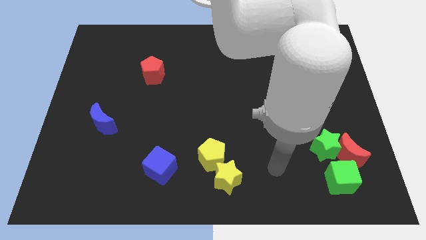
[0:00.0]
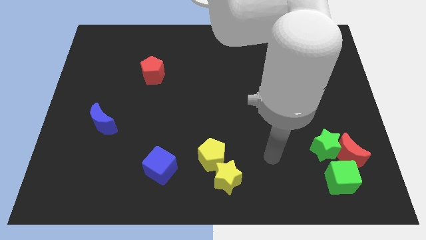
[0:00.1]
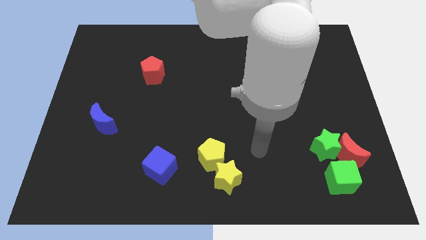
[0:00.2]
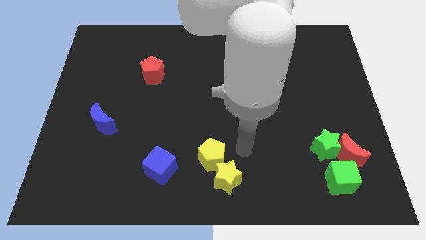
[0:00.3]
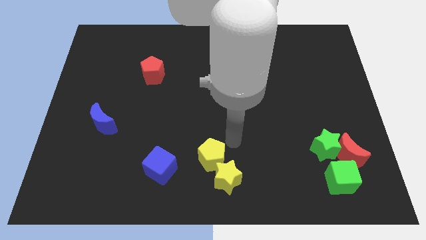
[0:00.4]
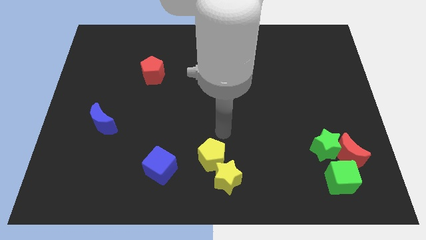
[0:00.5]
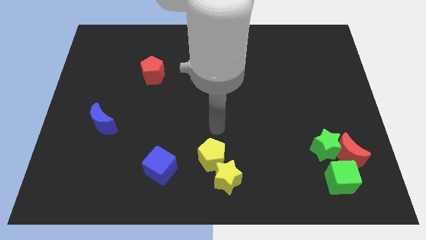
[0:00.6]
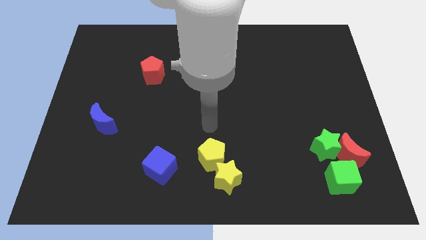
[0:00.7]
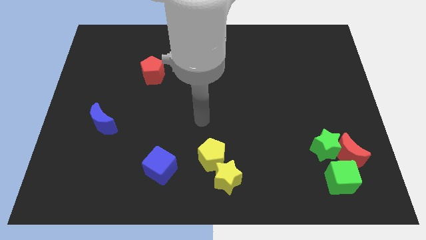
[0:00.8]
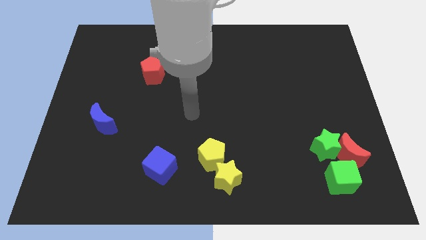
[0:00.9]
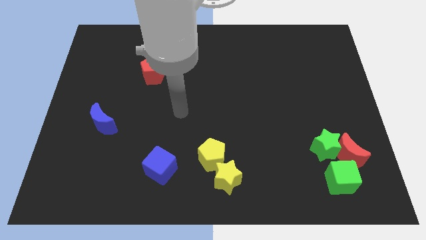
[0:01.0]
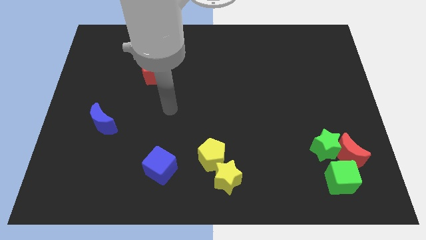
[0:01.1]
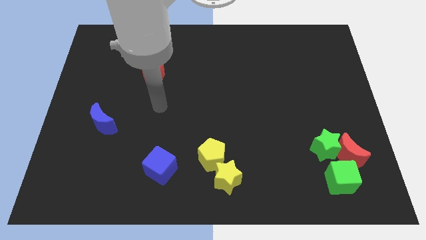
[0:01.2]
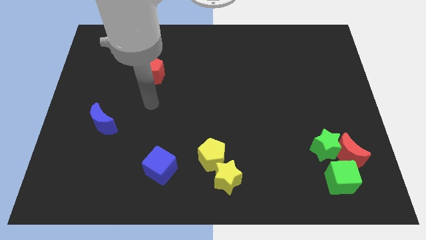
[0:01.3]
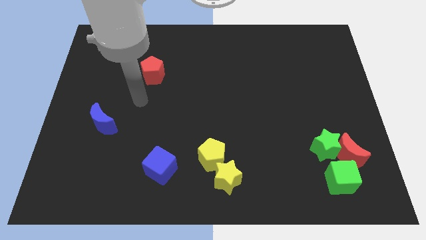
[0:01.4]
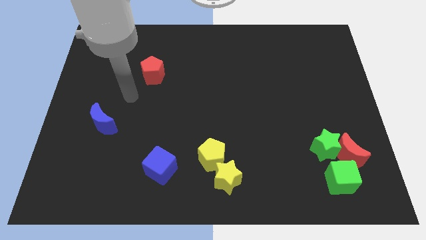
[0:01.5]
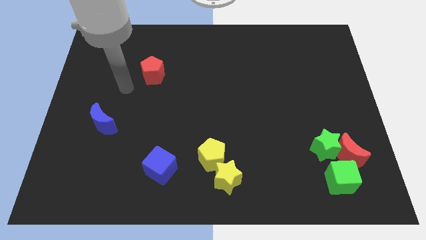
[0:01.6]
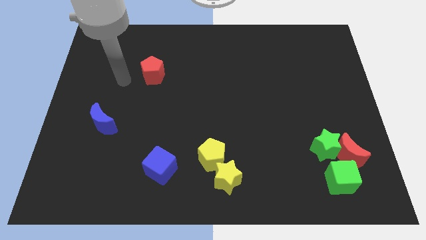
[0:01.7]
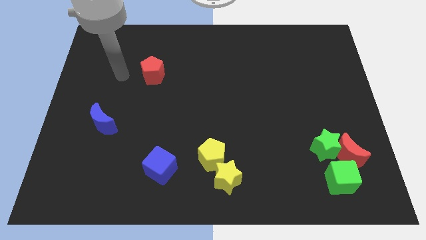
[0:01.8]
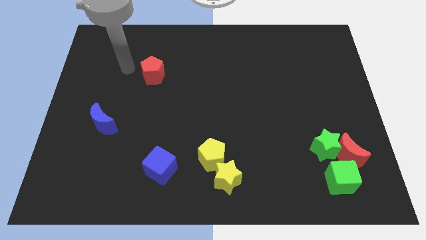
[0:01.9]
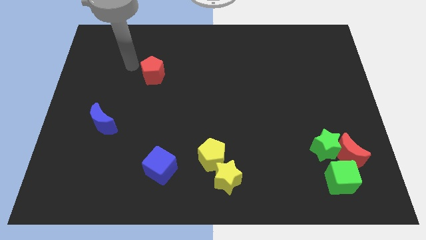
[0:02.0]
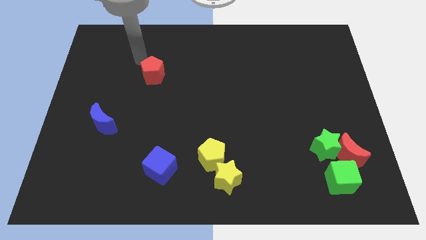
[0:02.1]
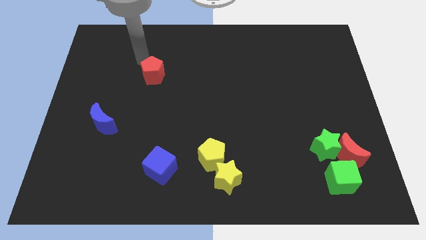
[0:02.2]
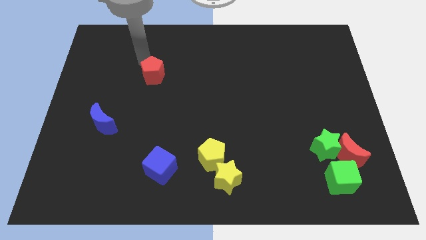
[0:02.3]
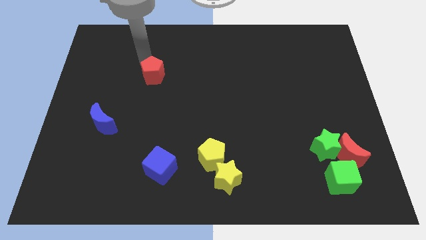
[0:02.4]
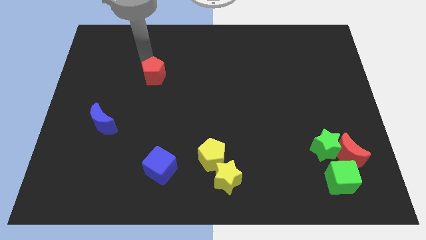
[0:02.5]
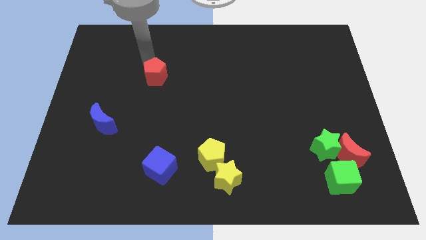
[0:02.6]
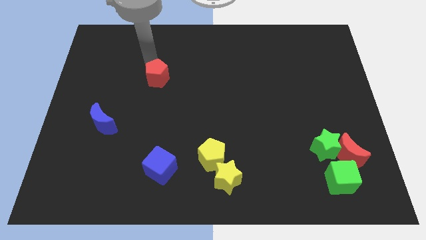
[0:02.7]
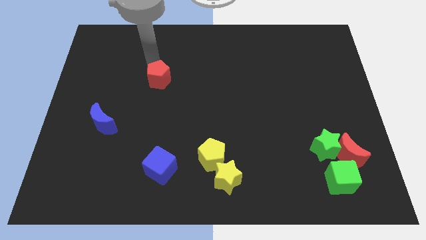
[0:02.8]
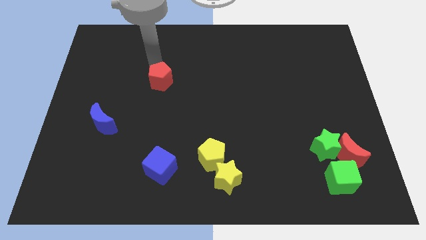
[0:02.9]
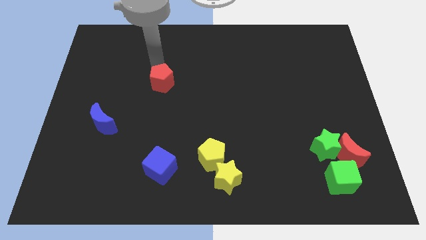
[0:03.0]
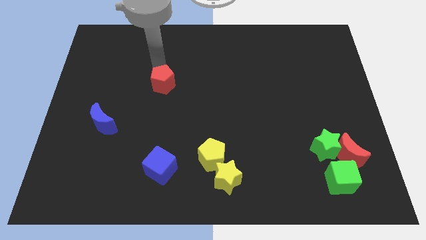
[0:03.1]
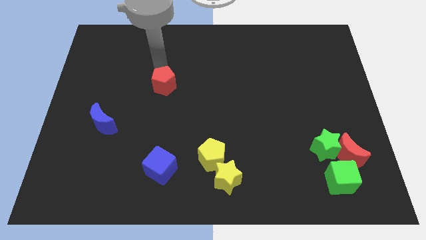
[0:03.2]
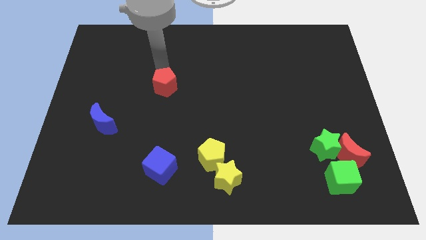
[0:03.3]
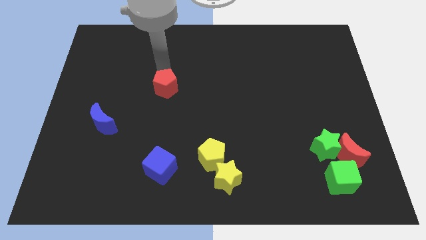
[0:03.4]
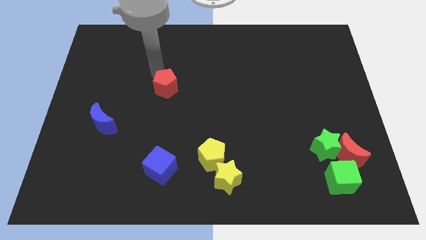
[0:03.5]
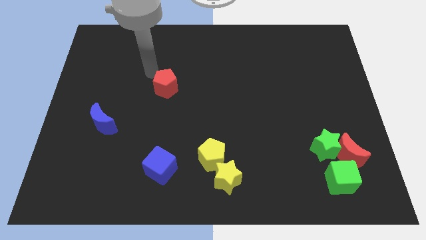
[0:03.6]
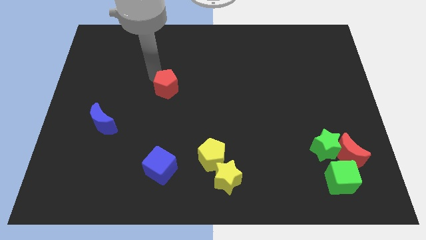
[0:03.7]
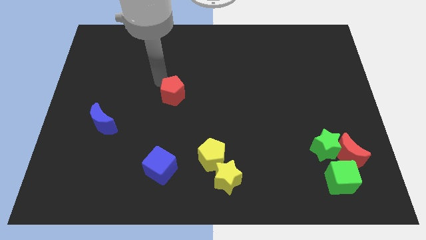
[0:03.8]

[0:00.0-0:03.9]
slide the red pentagon a little downwards and then to the right

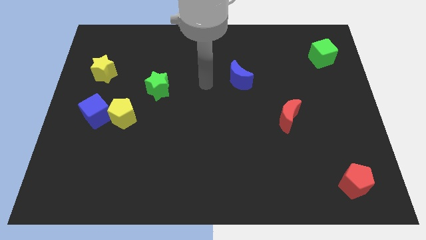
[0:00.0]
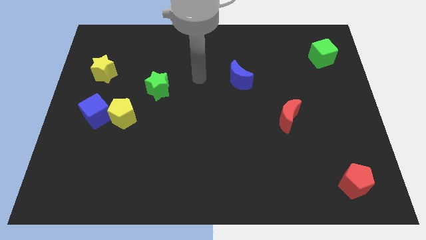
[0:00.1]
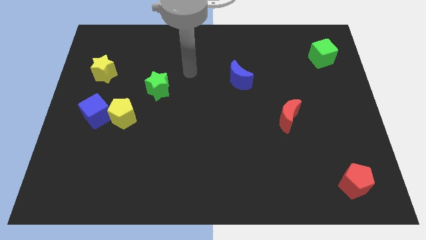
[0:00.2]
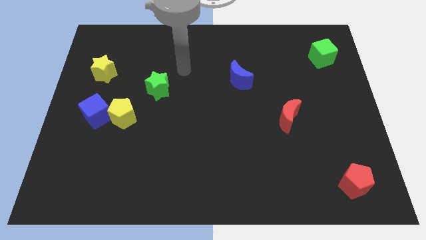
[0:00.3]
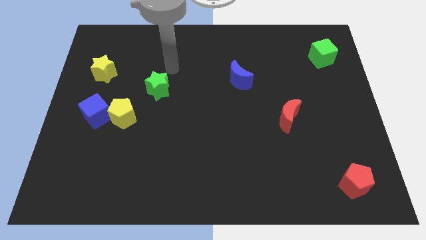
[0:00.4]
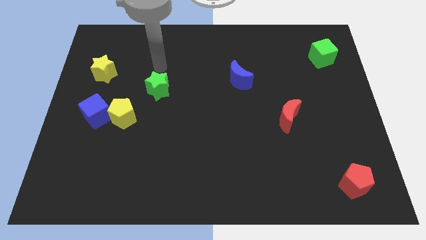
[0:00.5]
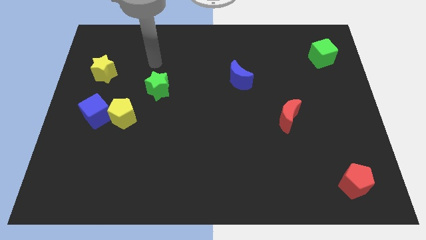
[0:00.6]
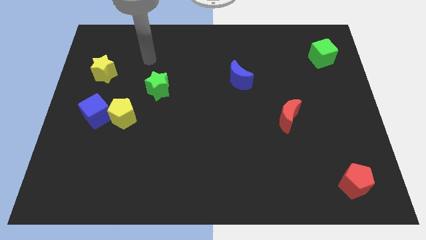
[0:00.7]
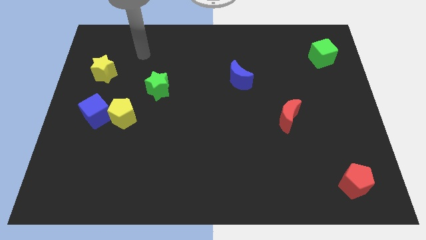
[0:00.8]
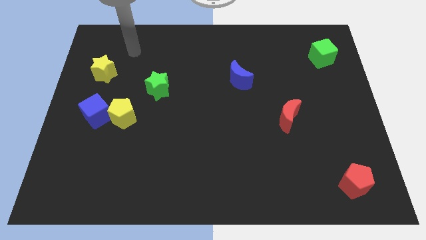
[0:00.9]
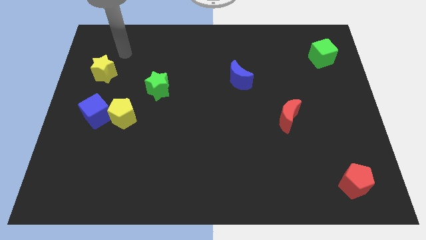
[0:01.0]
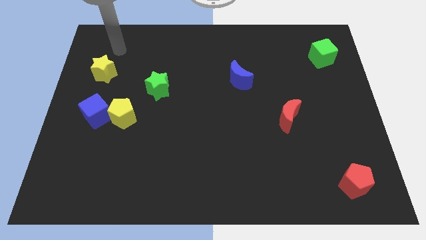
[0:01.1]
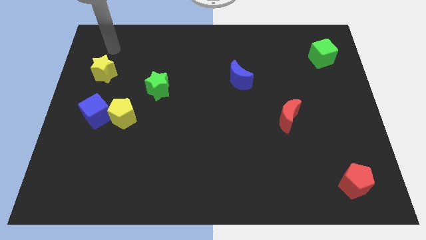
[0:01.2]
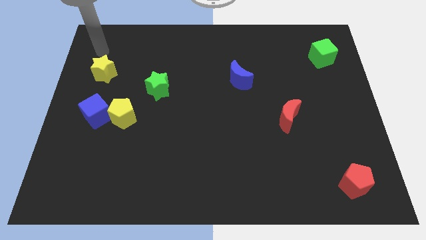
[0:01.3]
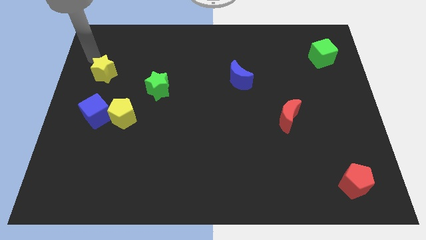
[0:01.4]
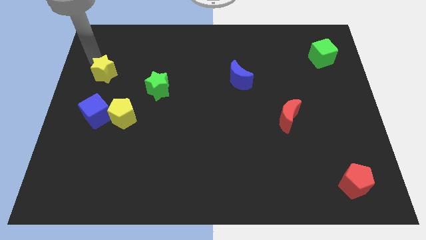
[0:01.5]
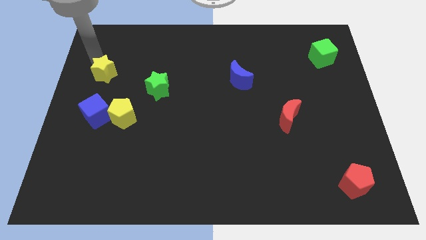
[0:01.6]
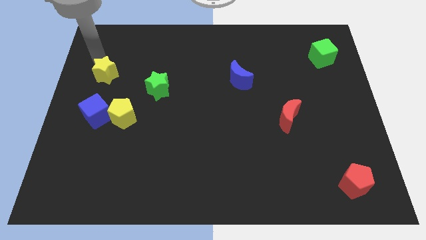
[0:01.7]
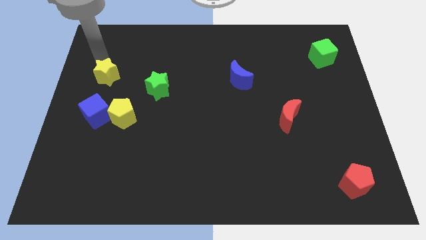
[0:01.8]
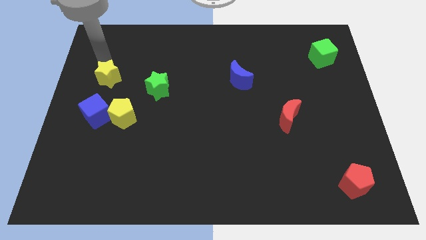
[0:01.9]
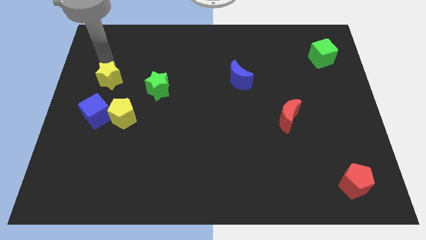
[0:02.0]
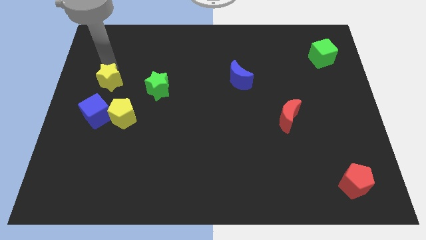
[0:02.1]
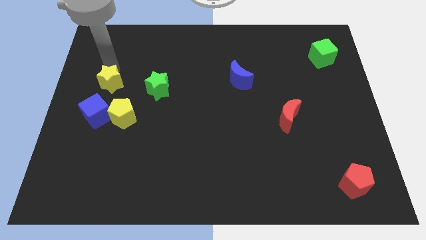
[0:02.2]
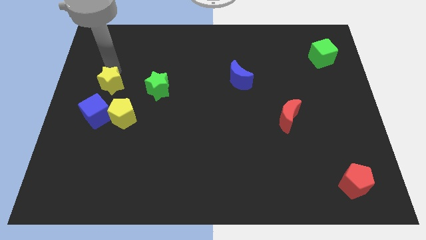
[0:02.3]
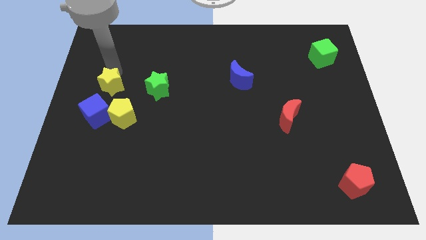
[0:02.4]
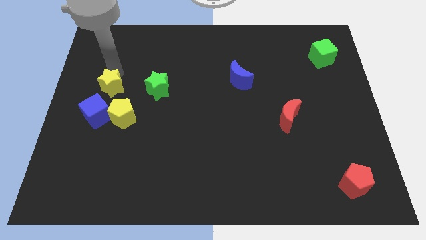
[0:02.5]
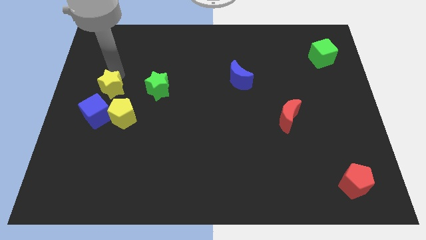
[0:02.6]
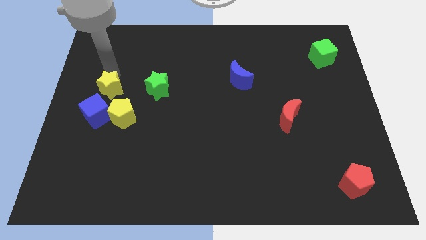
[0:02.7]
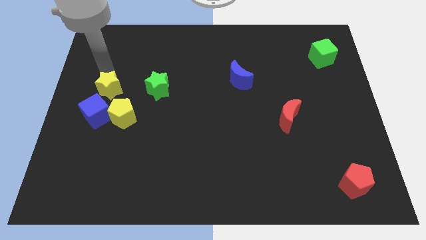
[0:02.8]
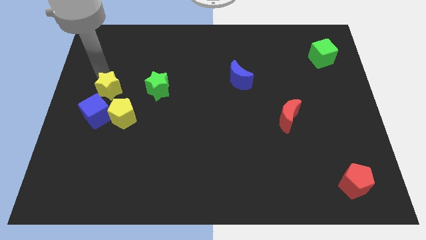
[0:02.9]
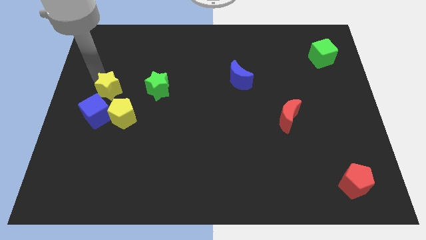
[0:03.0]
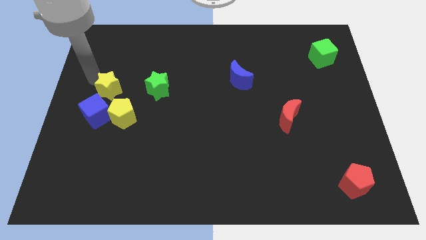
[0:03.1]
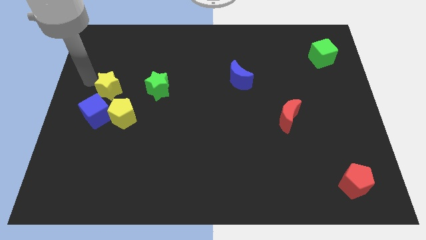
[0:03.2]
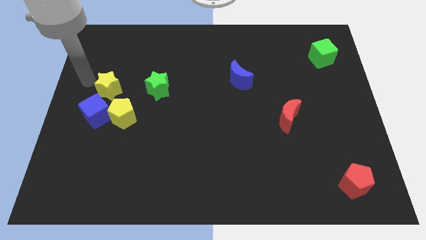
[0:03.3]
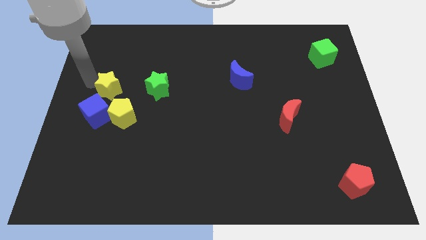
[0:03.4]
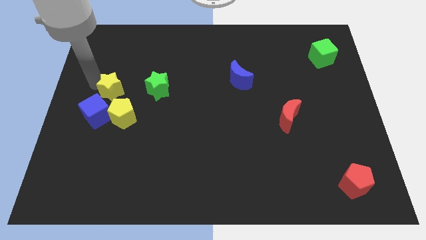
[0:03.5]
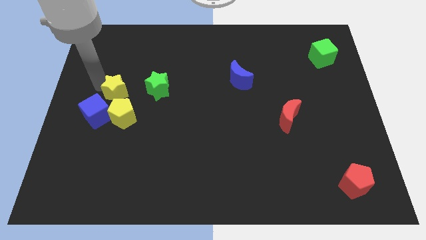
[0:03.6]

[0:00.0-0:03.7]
slightly push the yellow star down and then right

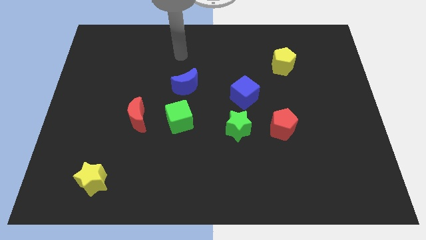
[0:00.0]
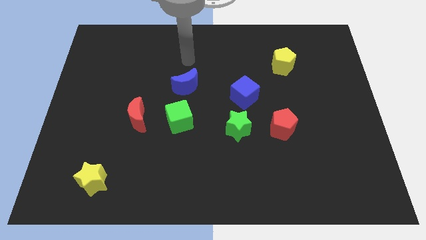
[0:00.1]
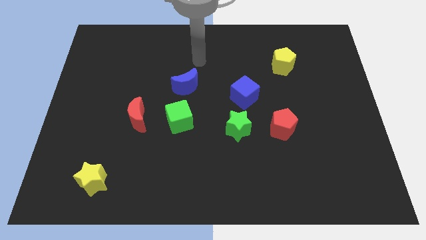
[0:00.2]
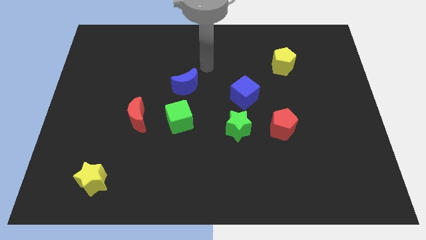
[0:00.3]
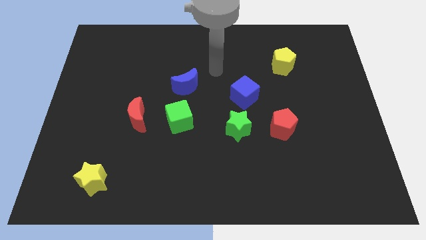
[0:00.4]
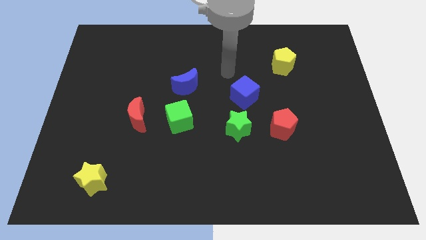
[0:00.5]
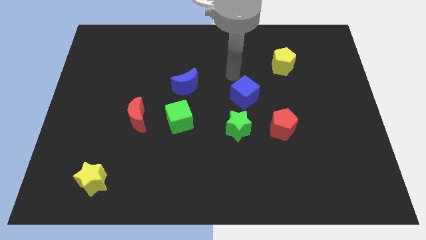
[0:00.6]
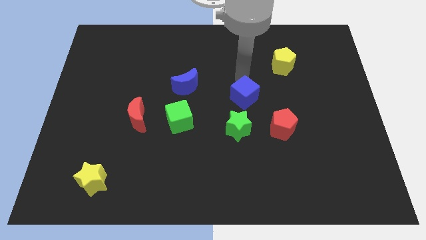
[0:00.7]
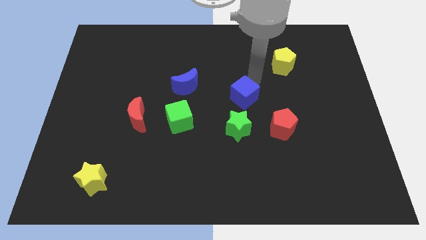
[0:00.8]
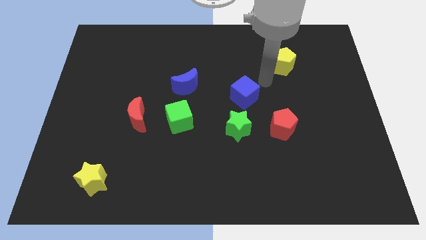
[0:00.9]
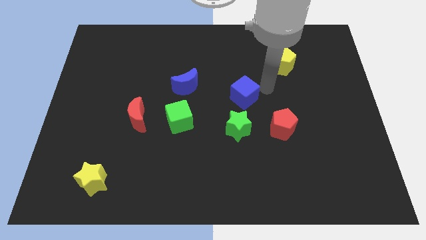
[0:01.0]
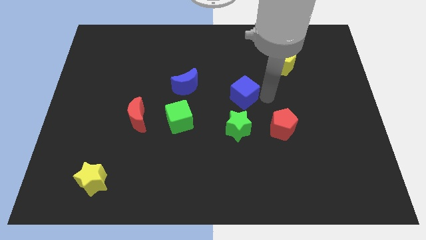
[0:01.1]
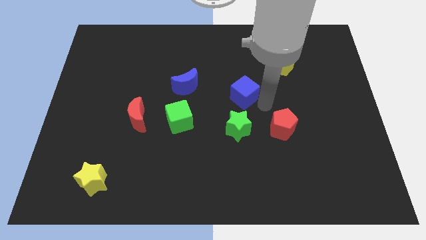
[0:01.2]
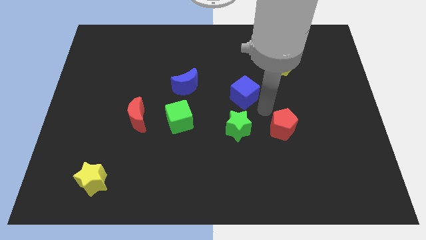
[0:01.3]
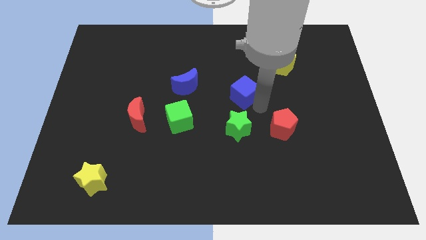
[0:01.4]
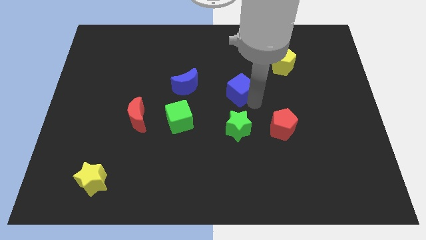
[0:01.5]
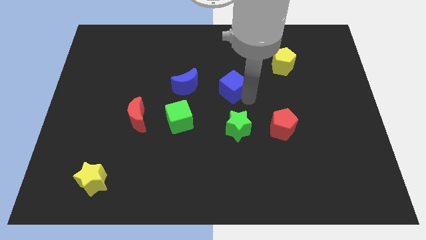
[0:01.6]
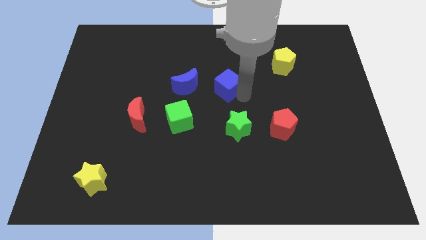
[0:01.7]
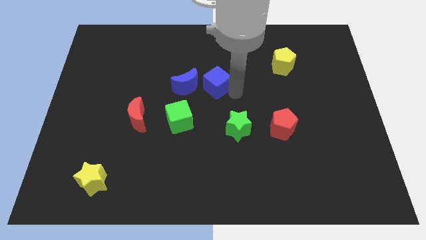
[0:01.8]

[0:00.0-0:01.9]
move the blue cube up and left a little
